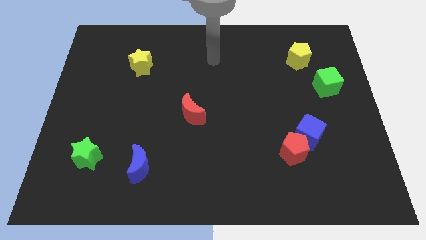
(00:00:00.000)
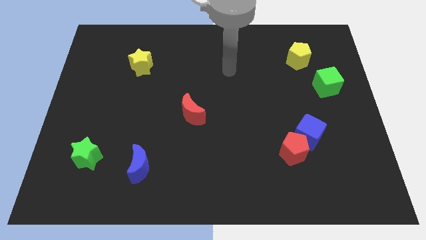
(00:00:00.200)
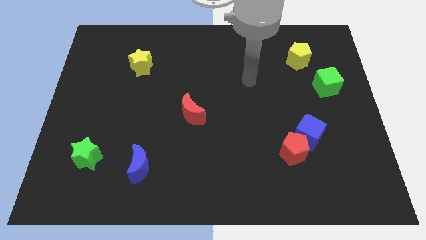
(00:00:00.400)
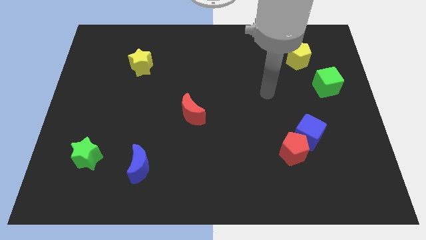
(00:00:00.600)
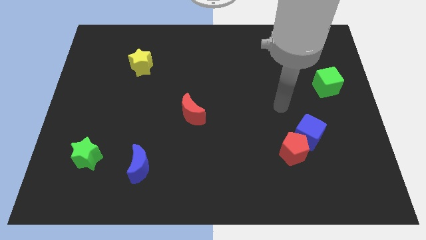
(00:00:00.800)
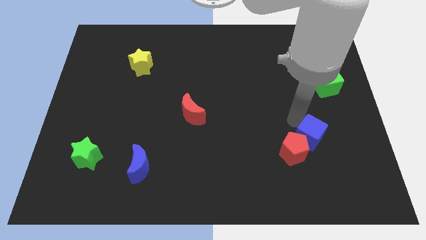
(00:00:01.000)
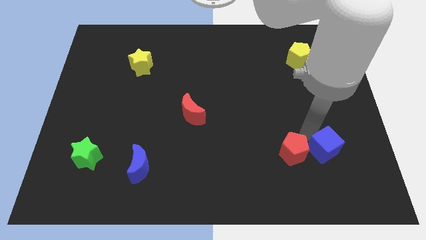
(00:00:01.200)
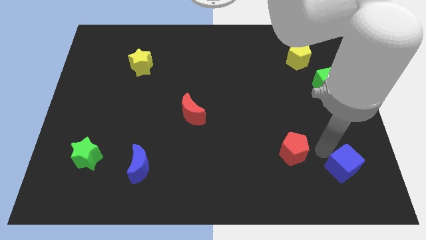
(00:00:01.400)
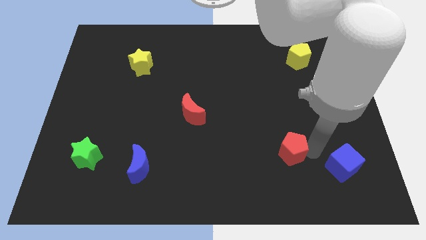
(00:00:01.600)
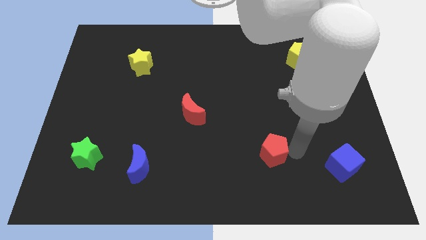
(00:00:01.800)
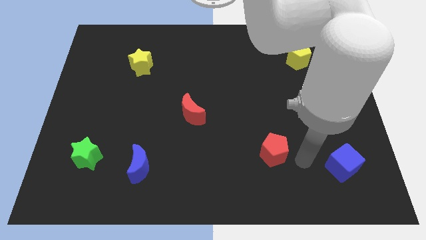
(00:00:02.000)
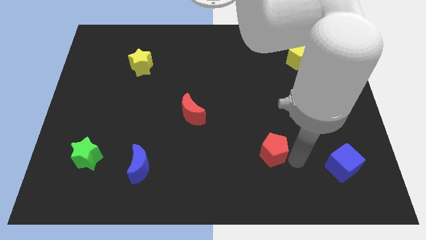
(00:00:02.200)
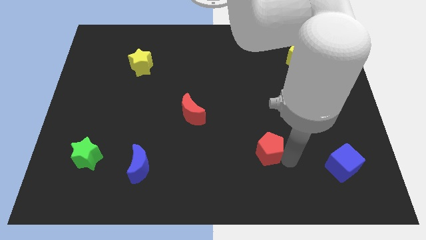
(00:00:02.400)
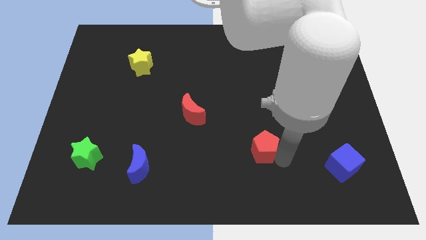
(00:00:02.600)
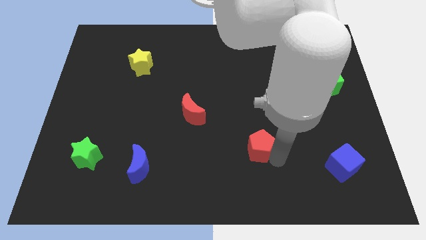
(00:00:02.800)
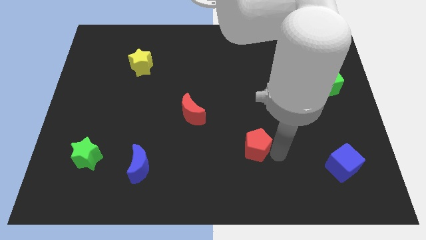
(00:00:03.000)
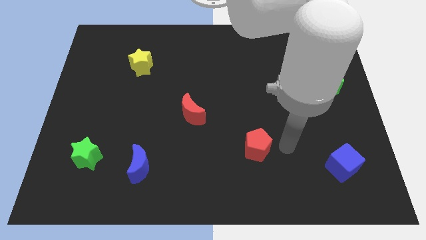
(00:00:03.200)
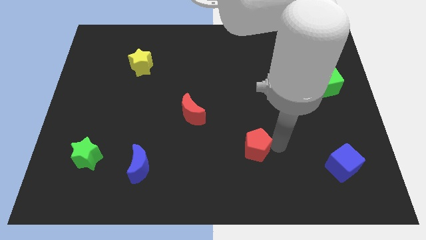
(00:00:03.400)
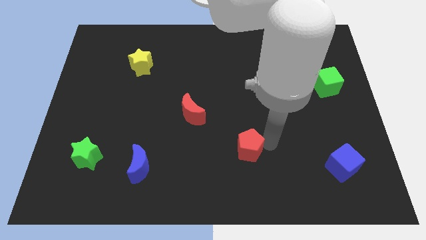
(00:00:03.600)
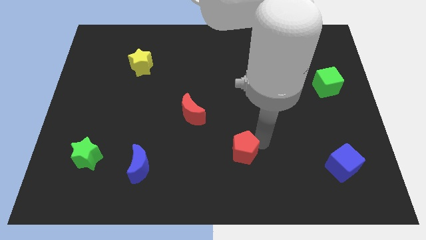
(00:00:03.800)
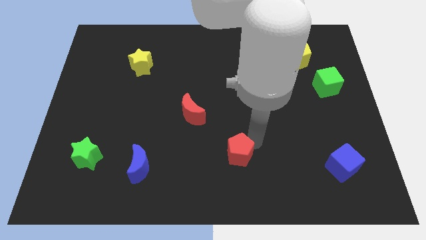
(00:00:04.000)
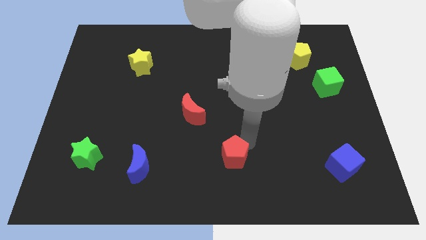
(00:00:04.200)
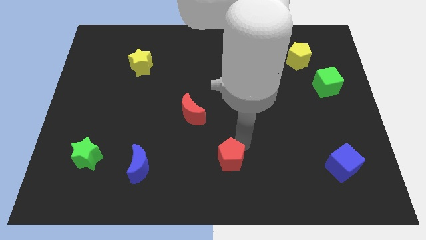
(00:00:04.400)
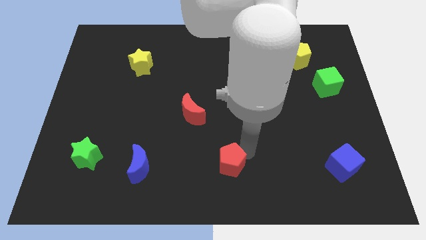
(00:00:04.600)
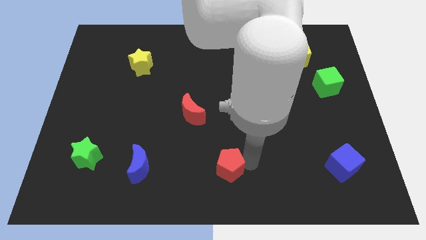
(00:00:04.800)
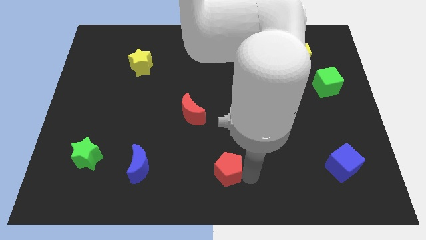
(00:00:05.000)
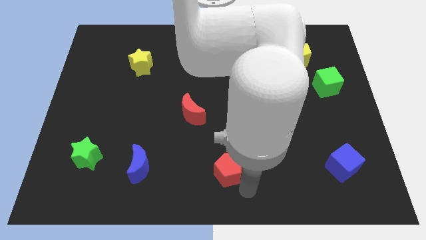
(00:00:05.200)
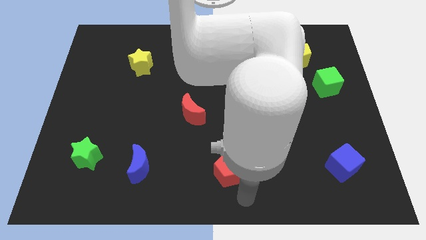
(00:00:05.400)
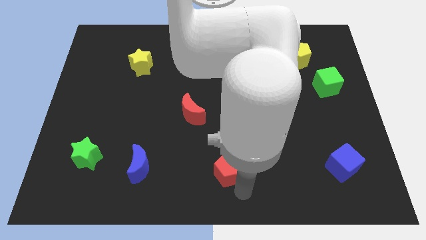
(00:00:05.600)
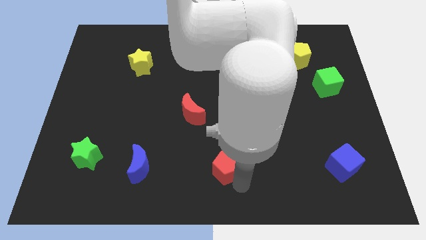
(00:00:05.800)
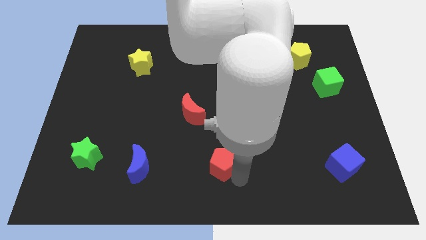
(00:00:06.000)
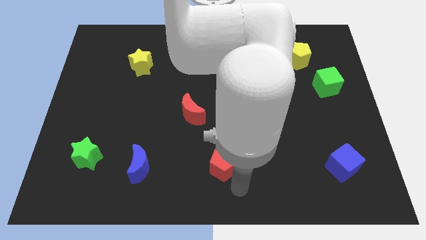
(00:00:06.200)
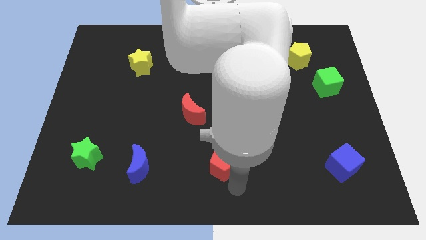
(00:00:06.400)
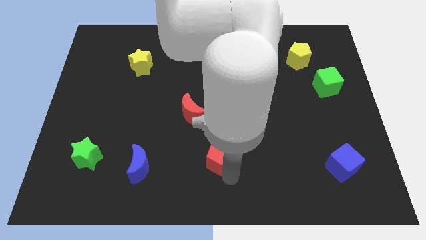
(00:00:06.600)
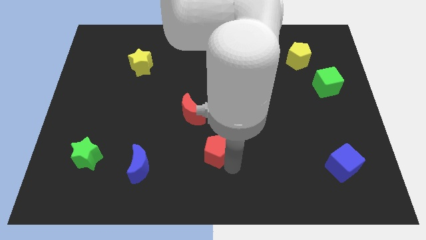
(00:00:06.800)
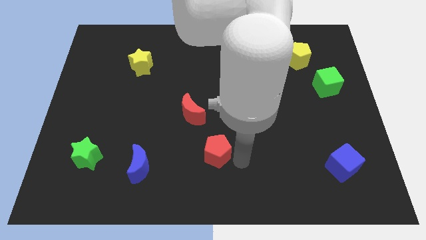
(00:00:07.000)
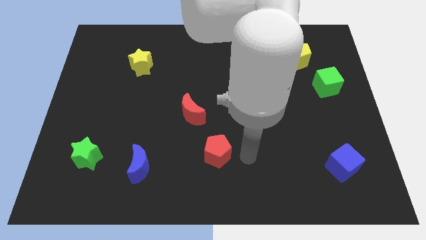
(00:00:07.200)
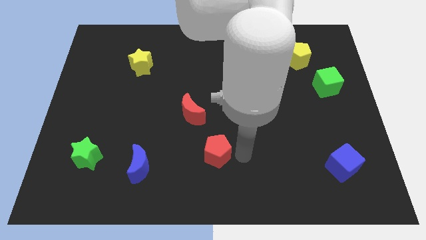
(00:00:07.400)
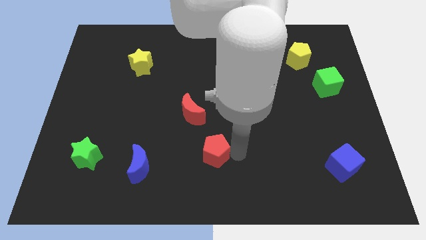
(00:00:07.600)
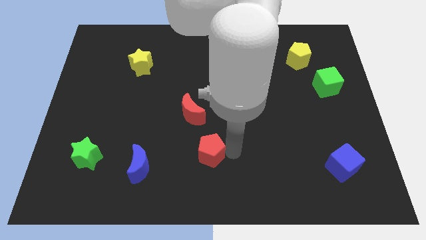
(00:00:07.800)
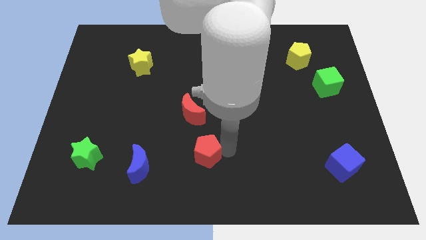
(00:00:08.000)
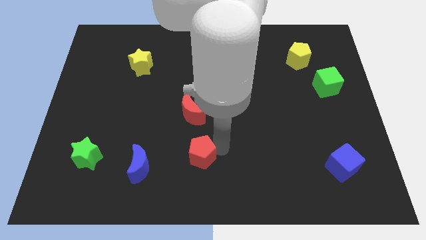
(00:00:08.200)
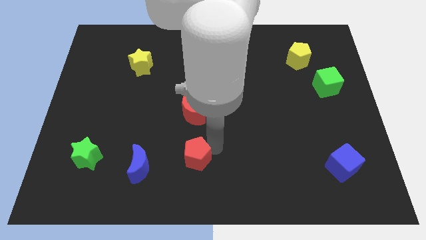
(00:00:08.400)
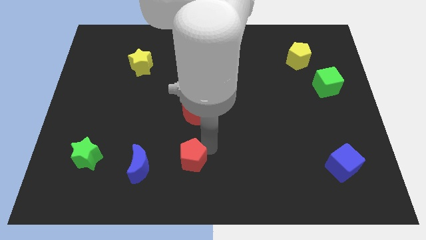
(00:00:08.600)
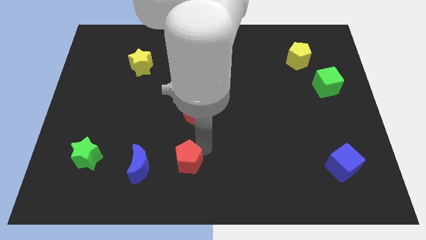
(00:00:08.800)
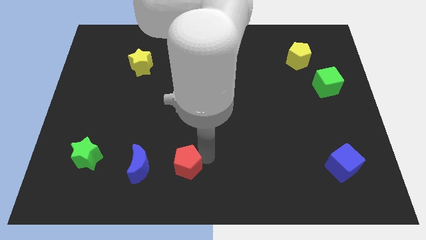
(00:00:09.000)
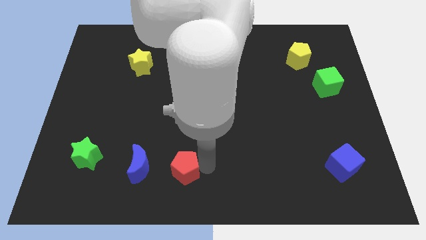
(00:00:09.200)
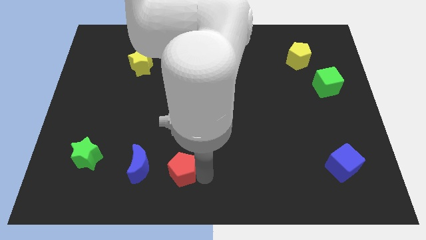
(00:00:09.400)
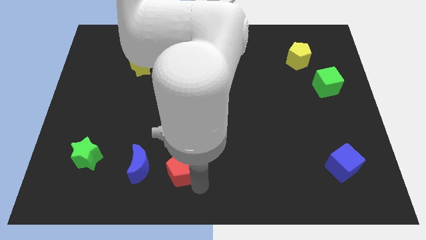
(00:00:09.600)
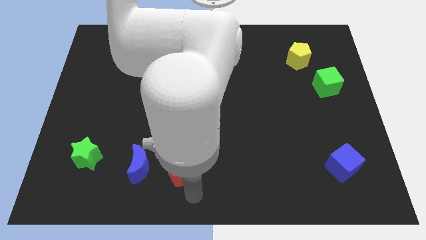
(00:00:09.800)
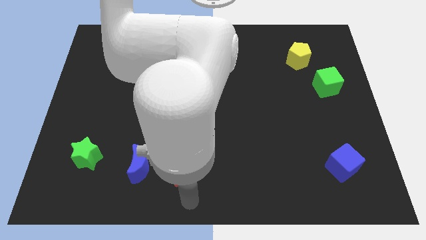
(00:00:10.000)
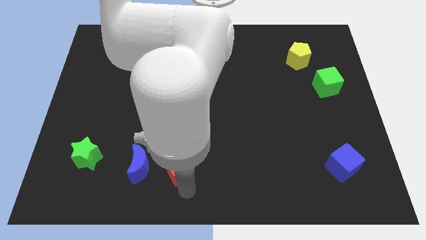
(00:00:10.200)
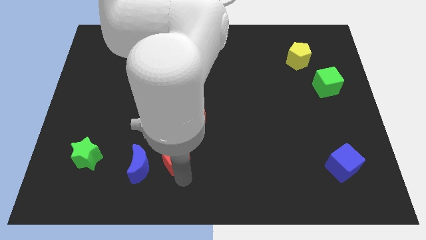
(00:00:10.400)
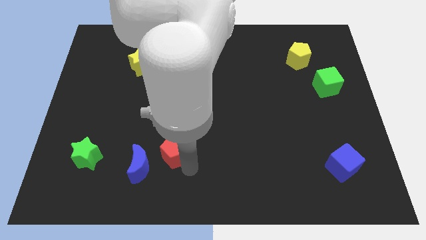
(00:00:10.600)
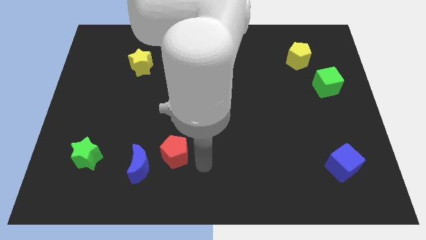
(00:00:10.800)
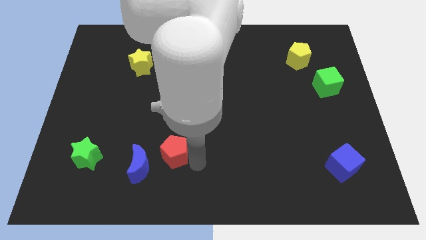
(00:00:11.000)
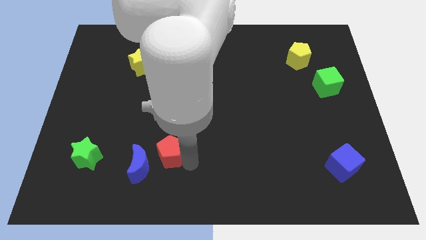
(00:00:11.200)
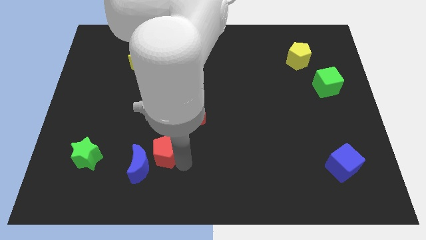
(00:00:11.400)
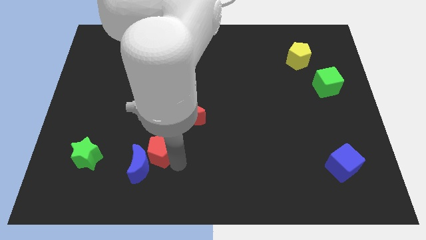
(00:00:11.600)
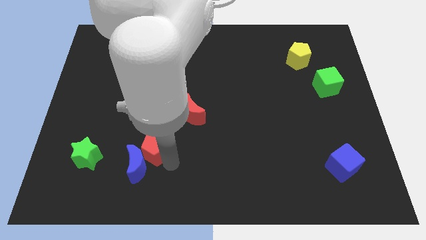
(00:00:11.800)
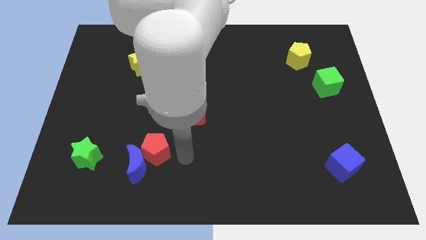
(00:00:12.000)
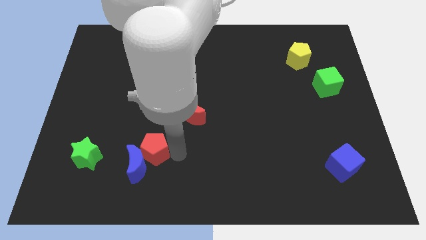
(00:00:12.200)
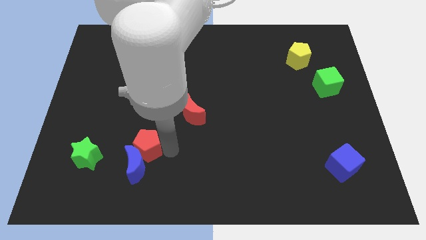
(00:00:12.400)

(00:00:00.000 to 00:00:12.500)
push the red pentagon diagonally up and to the left of the blue moon

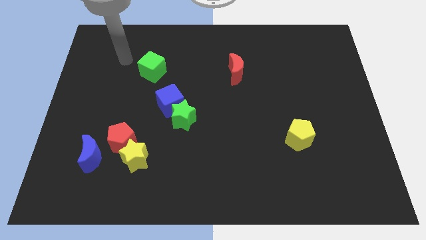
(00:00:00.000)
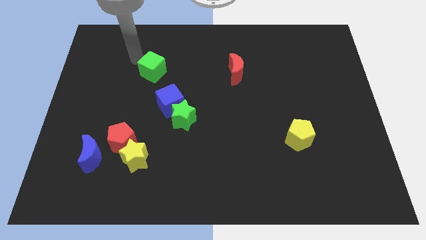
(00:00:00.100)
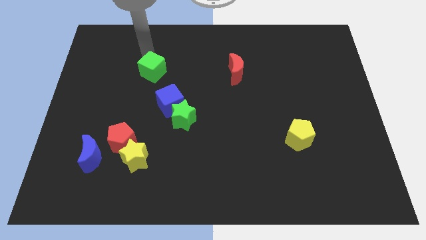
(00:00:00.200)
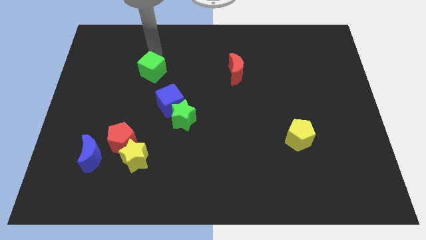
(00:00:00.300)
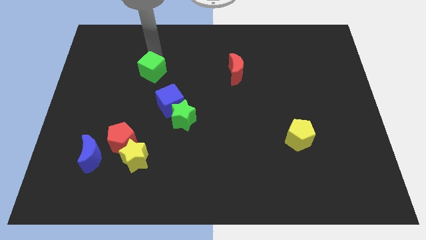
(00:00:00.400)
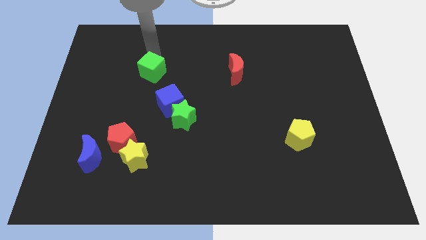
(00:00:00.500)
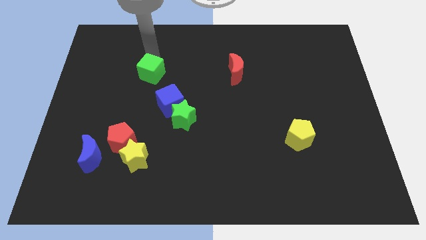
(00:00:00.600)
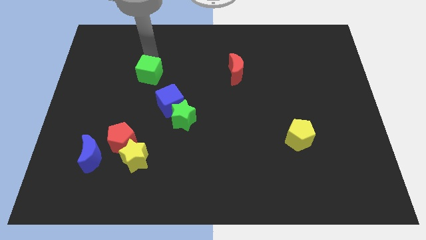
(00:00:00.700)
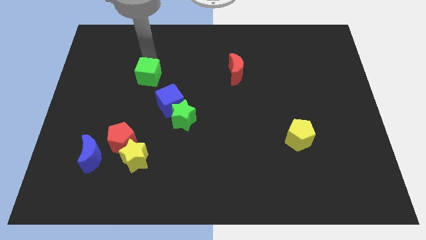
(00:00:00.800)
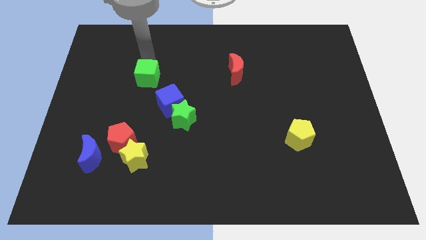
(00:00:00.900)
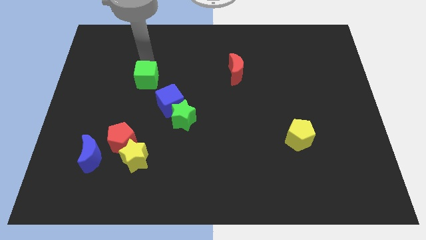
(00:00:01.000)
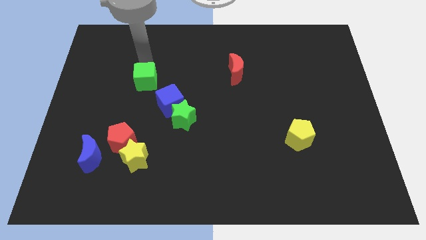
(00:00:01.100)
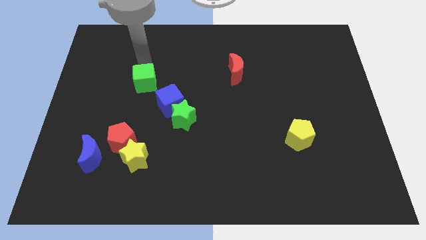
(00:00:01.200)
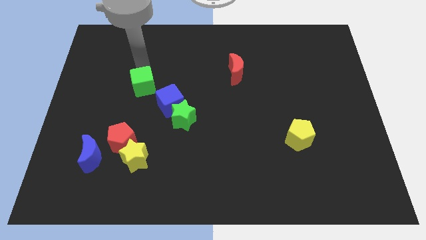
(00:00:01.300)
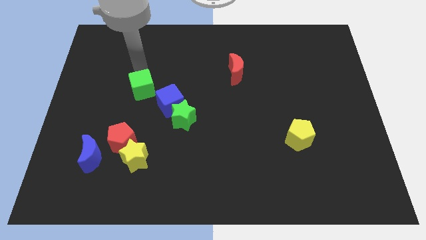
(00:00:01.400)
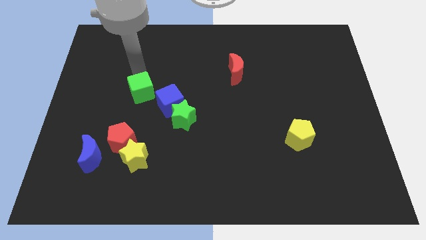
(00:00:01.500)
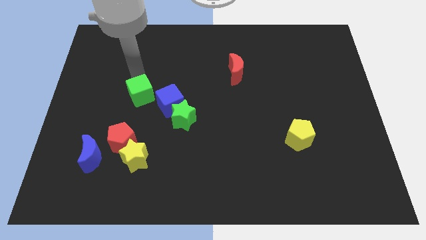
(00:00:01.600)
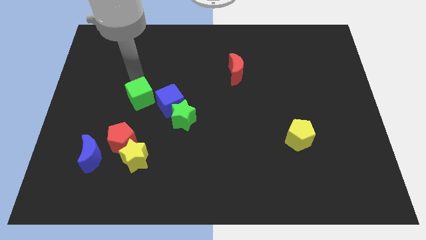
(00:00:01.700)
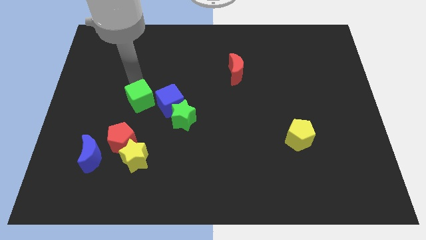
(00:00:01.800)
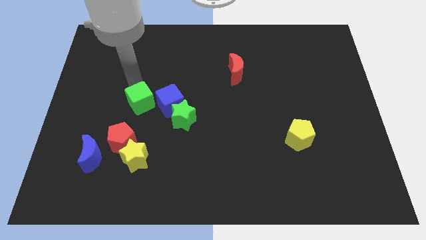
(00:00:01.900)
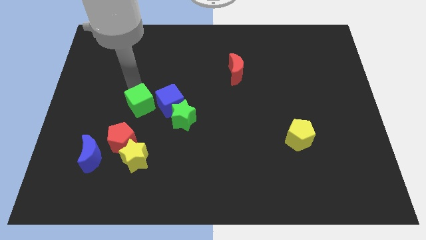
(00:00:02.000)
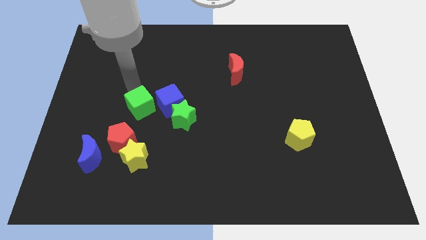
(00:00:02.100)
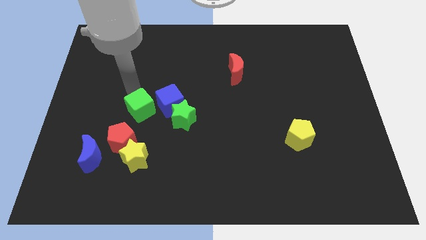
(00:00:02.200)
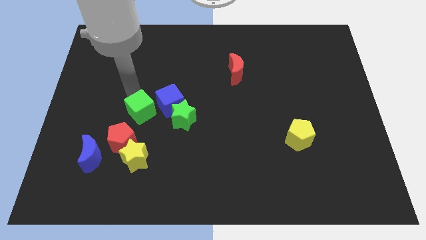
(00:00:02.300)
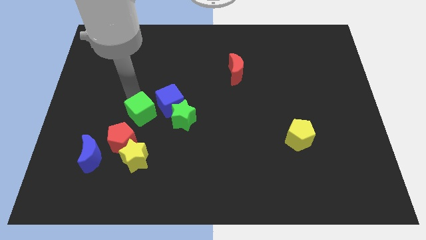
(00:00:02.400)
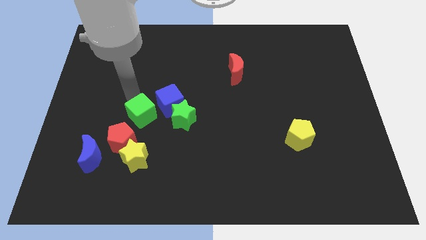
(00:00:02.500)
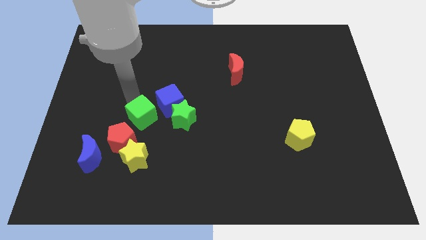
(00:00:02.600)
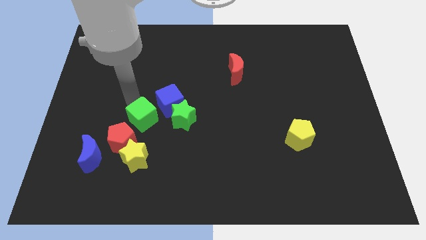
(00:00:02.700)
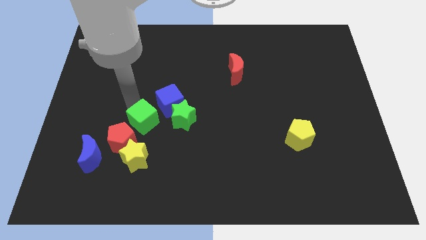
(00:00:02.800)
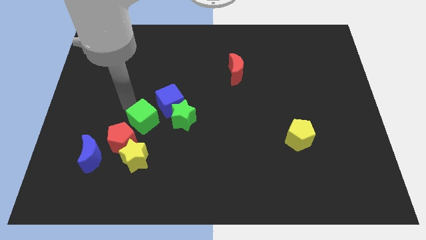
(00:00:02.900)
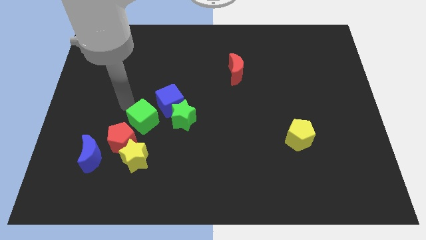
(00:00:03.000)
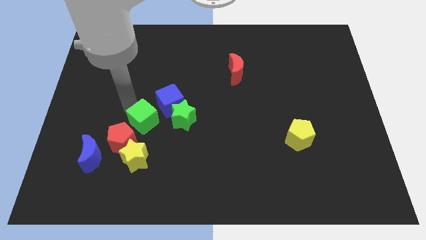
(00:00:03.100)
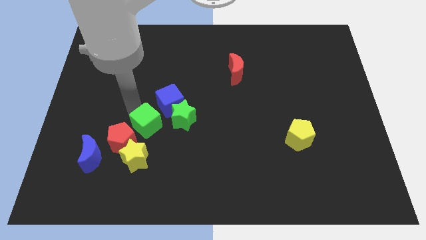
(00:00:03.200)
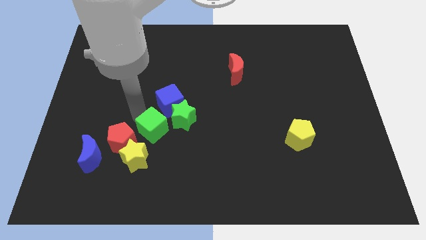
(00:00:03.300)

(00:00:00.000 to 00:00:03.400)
push the green cube to the top right side of the yellow star
